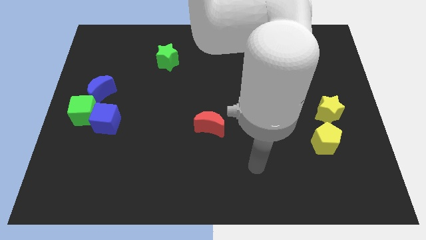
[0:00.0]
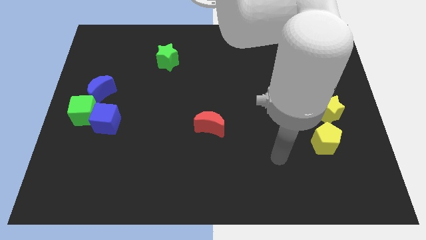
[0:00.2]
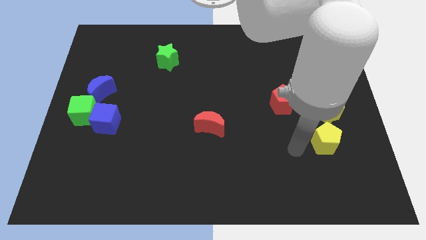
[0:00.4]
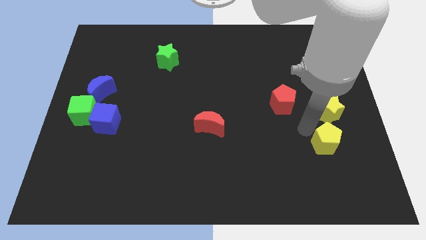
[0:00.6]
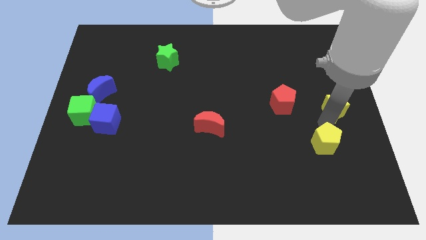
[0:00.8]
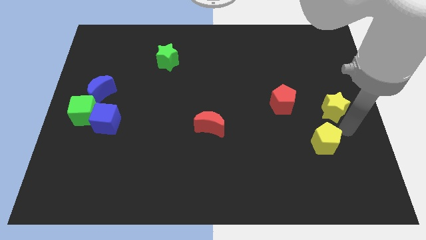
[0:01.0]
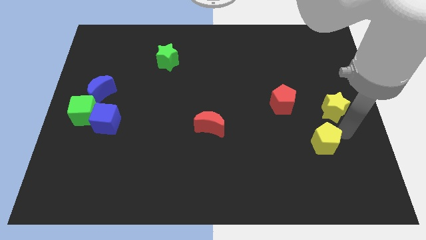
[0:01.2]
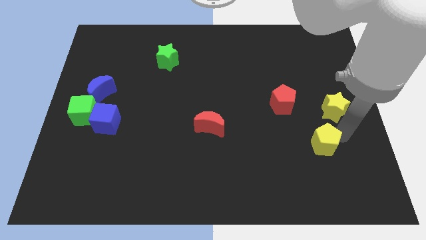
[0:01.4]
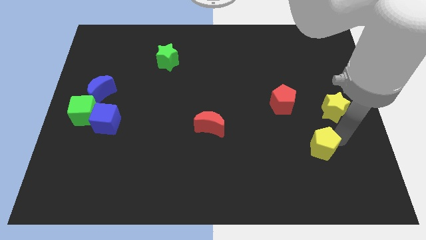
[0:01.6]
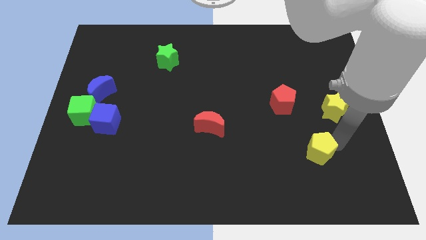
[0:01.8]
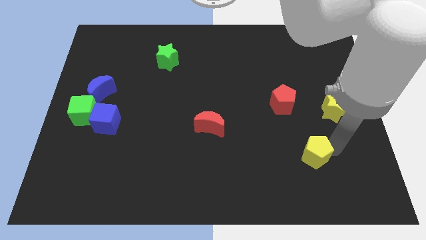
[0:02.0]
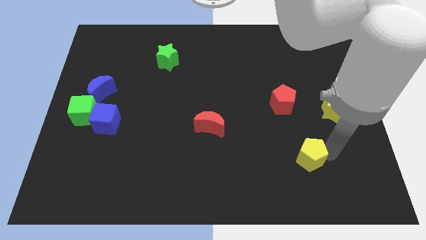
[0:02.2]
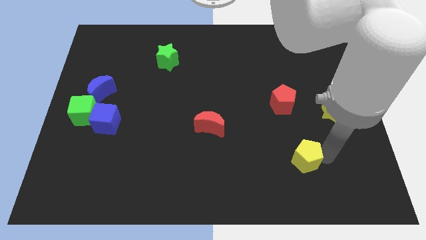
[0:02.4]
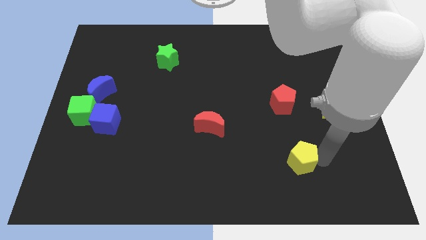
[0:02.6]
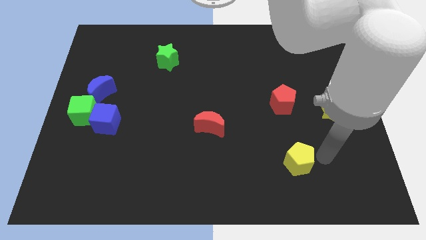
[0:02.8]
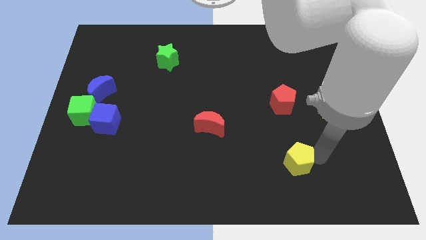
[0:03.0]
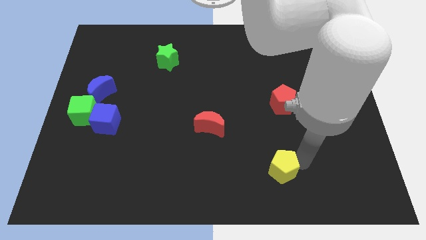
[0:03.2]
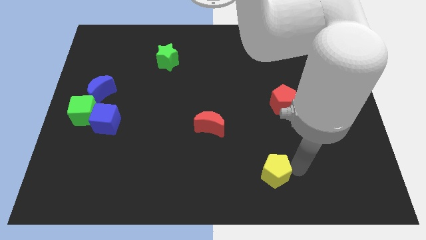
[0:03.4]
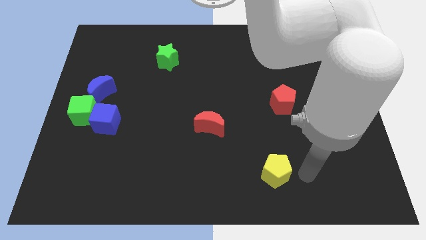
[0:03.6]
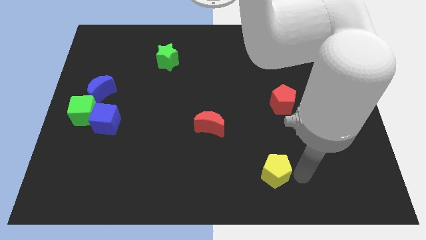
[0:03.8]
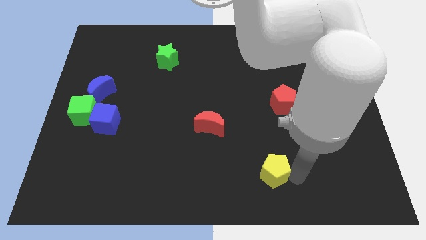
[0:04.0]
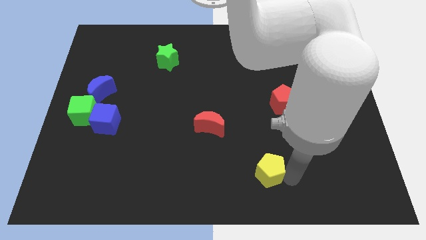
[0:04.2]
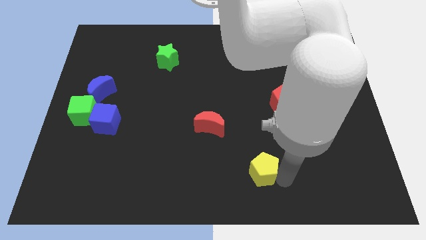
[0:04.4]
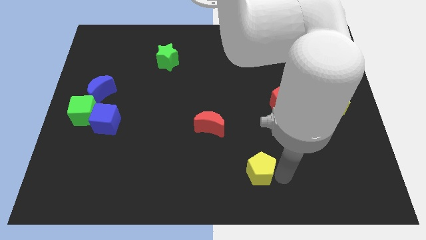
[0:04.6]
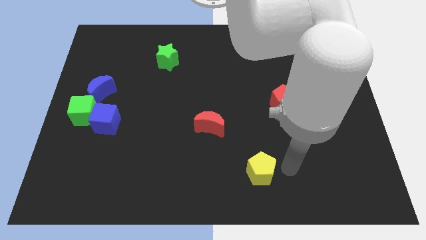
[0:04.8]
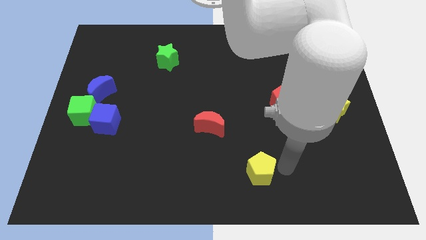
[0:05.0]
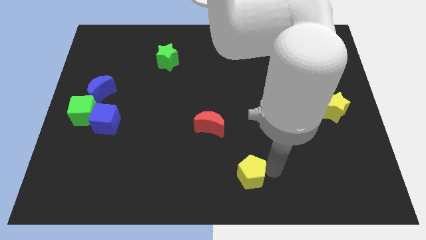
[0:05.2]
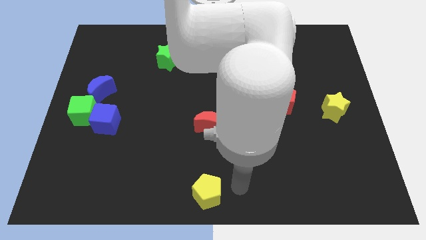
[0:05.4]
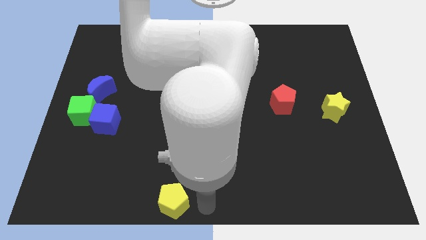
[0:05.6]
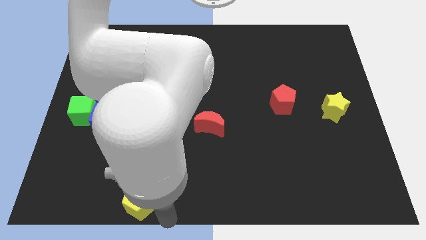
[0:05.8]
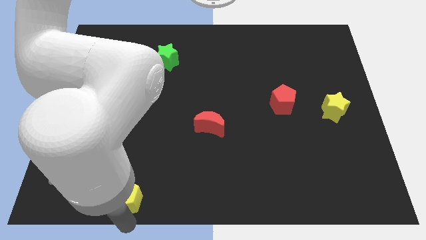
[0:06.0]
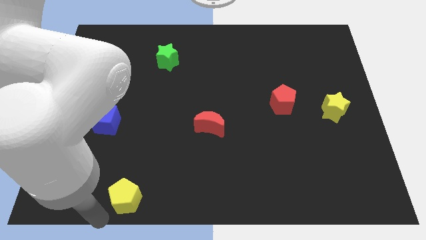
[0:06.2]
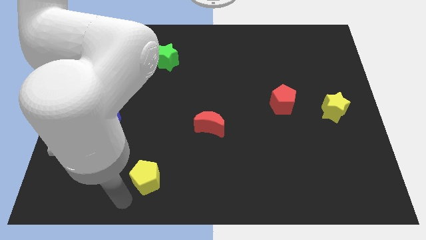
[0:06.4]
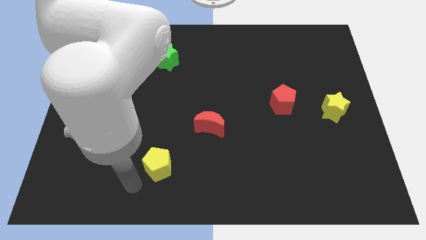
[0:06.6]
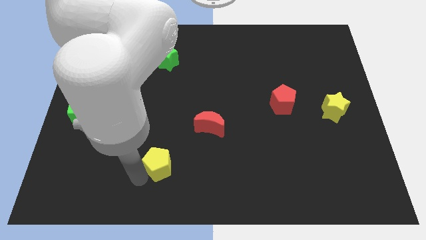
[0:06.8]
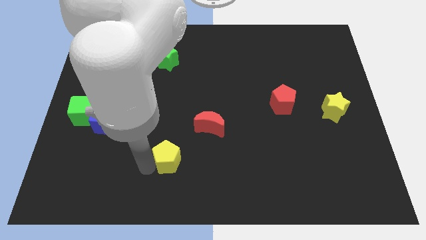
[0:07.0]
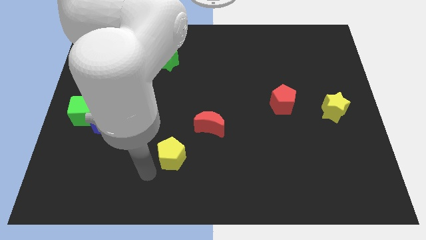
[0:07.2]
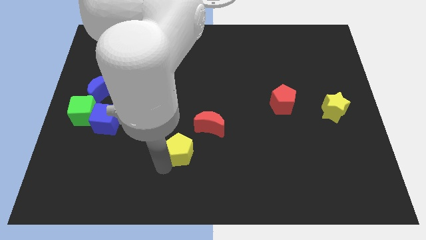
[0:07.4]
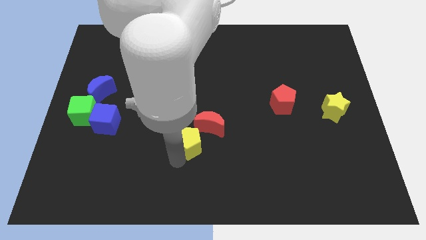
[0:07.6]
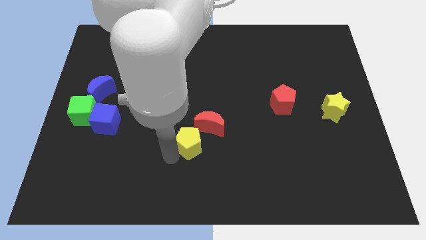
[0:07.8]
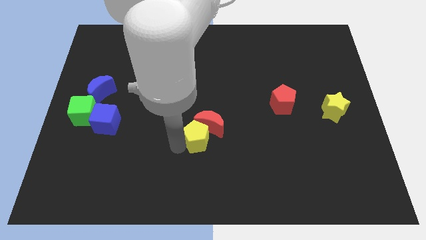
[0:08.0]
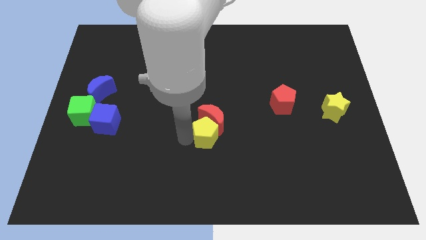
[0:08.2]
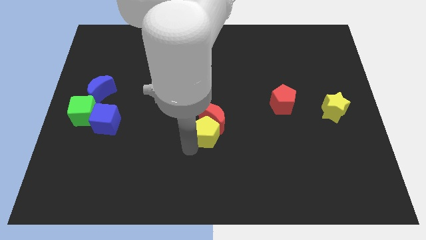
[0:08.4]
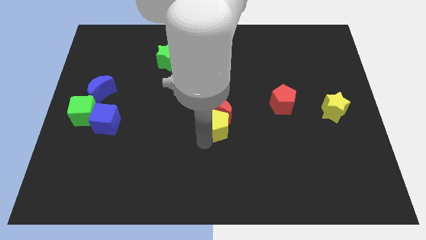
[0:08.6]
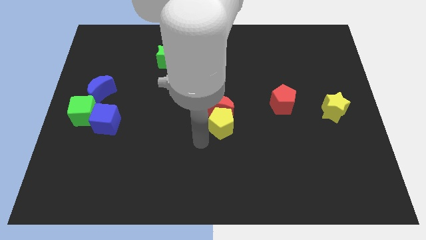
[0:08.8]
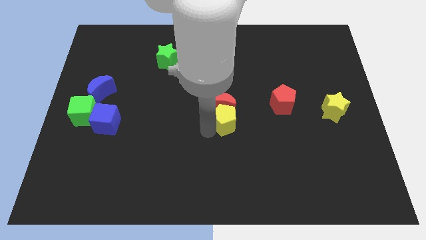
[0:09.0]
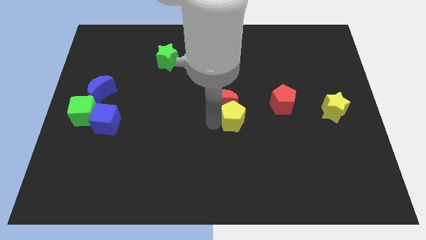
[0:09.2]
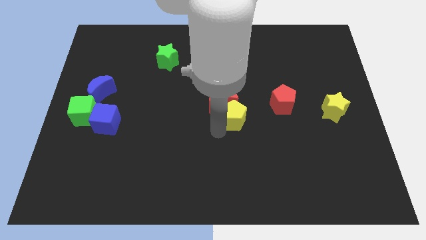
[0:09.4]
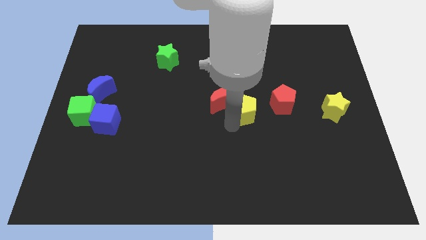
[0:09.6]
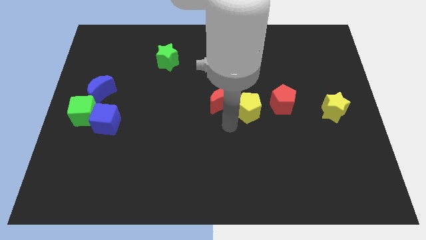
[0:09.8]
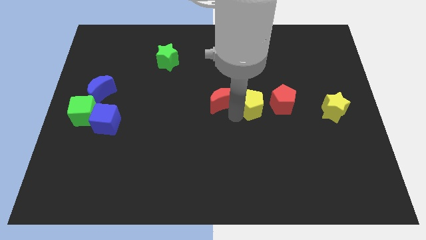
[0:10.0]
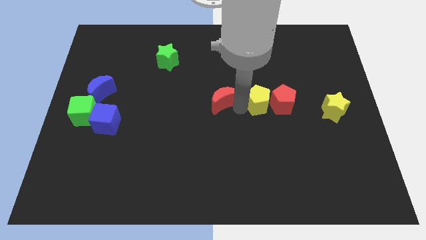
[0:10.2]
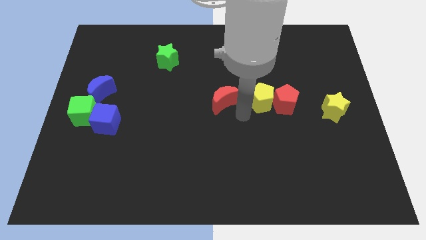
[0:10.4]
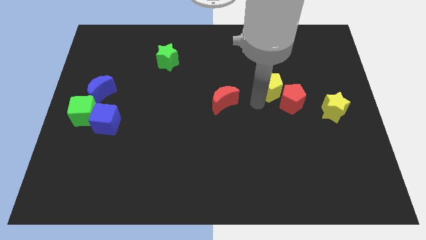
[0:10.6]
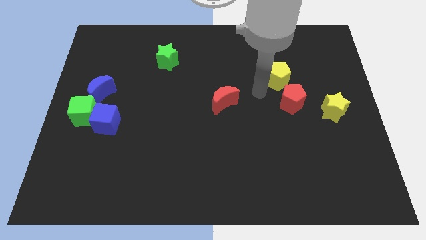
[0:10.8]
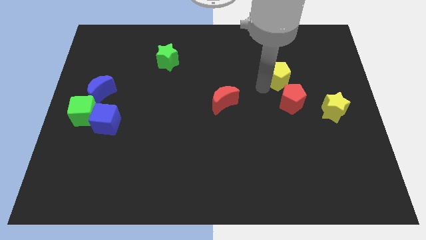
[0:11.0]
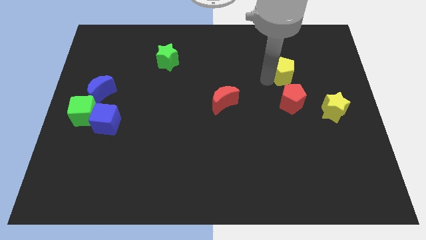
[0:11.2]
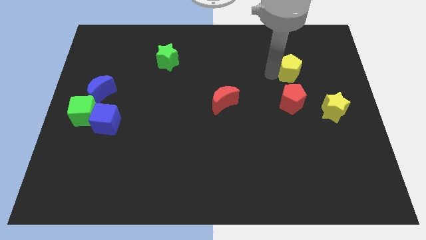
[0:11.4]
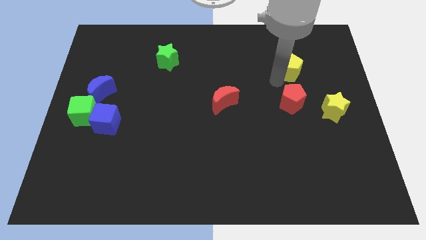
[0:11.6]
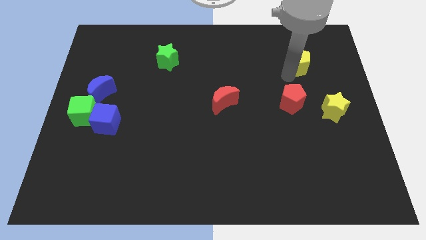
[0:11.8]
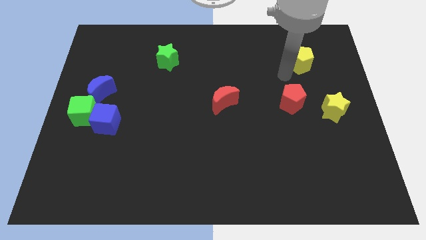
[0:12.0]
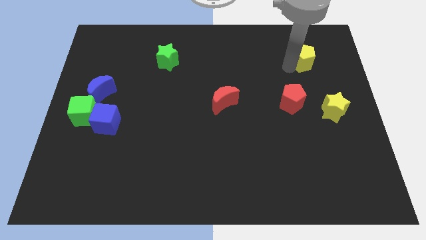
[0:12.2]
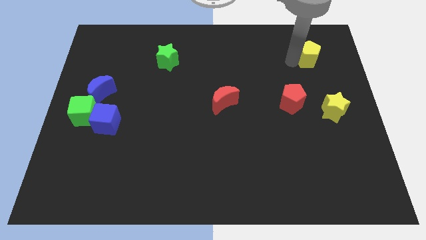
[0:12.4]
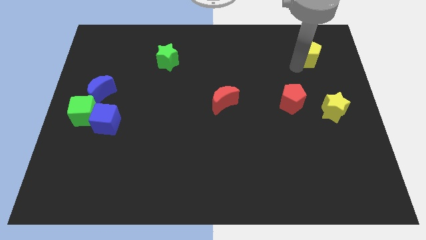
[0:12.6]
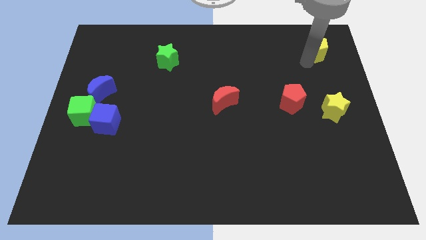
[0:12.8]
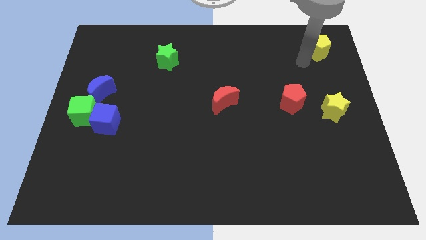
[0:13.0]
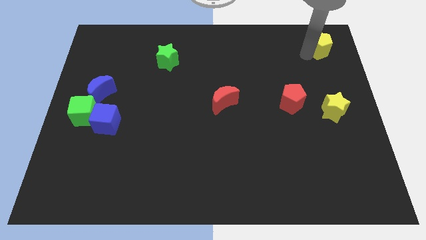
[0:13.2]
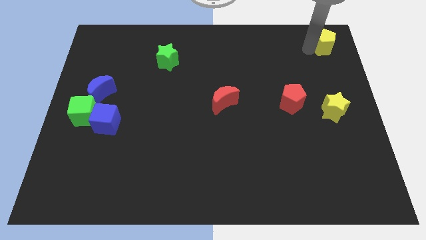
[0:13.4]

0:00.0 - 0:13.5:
slide the yellow pentagon to the top right corner
